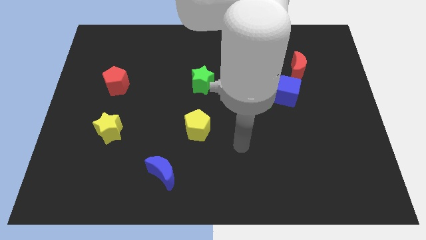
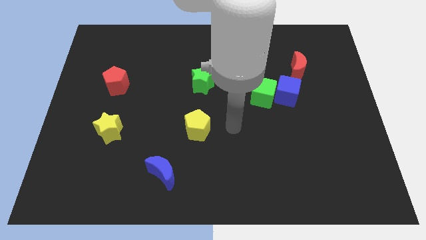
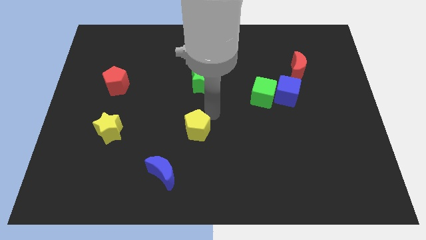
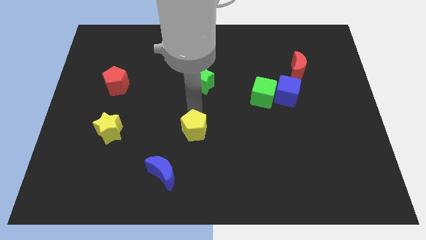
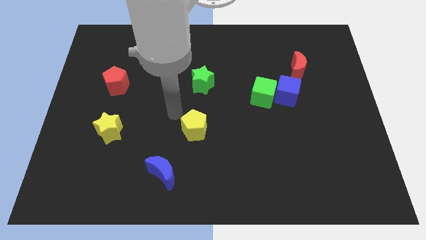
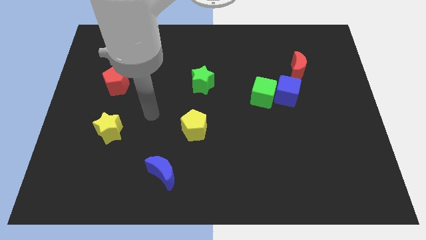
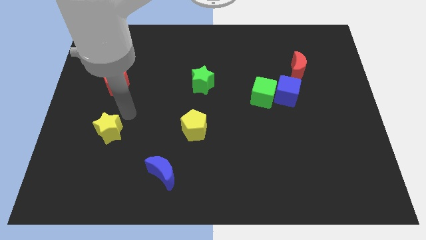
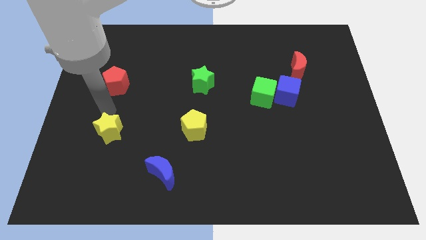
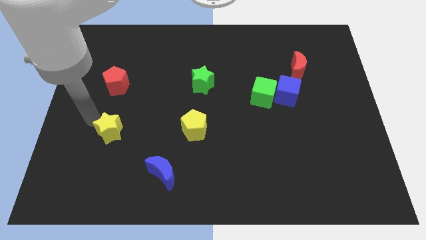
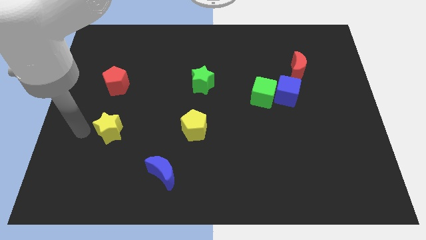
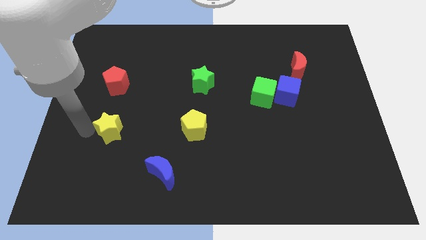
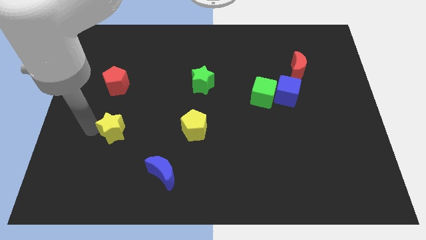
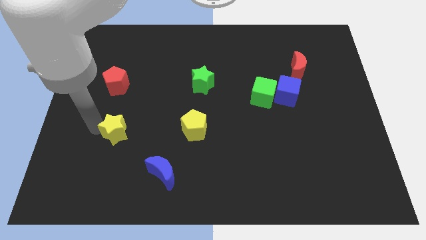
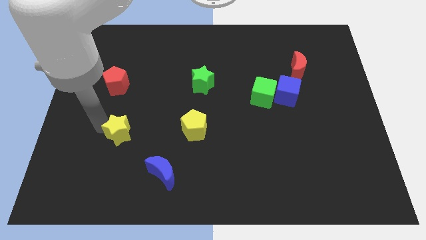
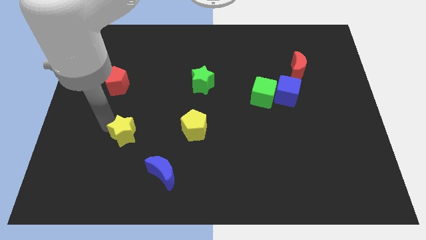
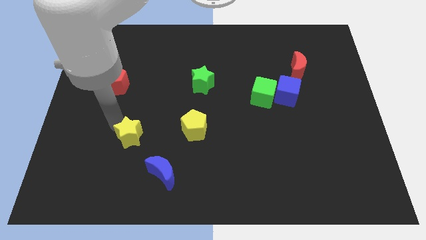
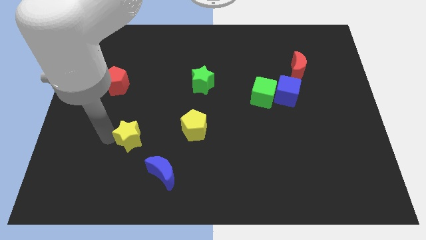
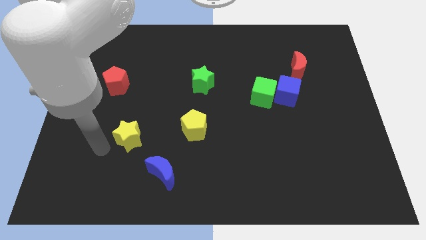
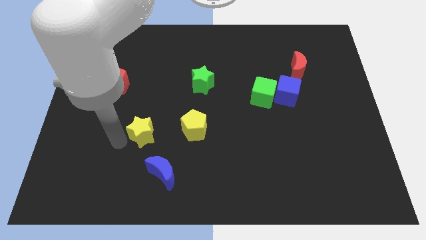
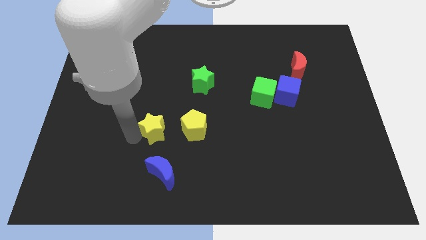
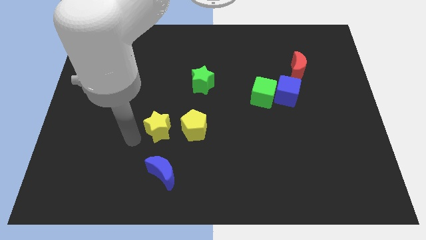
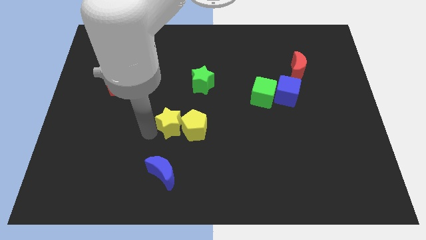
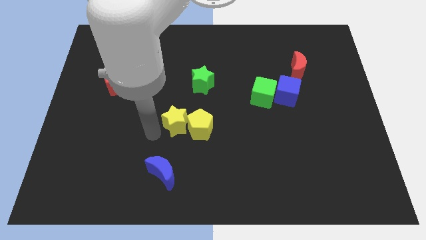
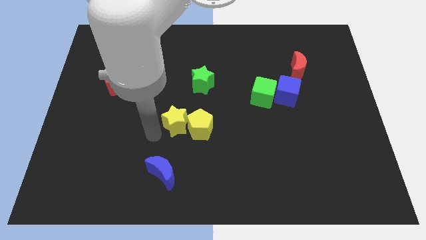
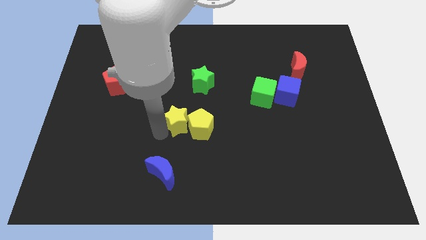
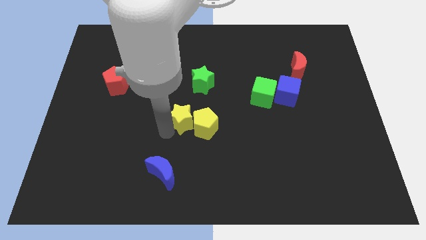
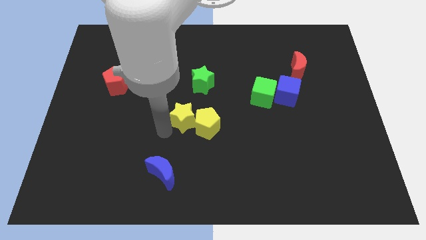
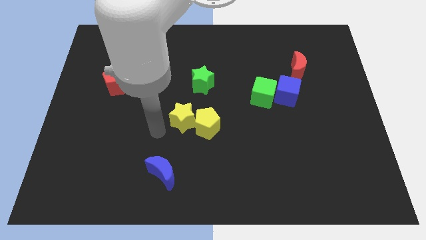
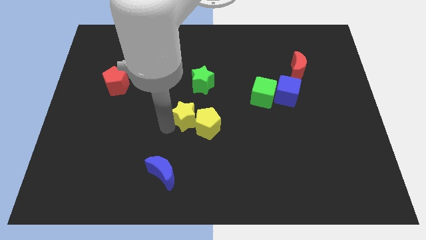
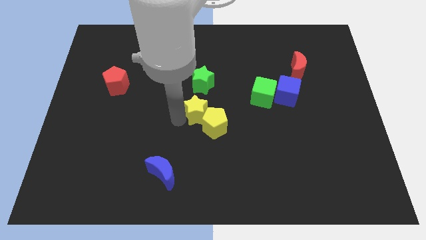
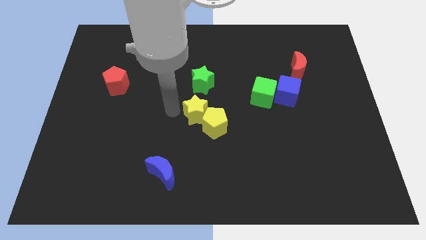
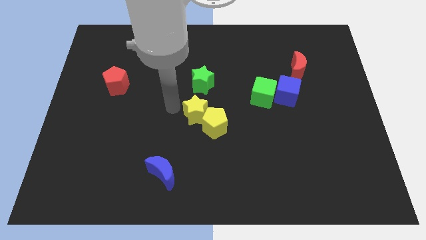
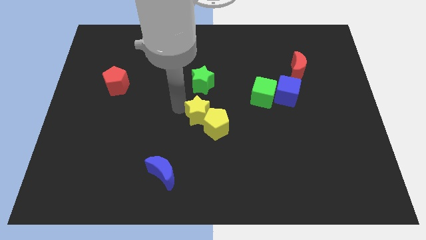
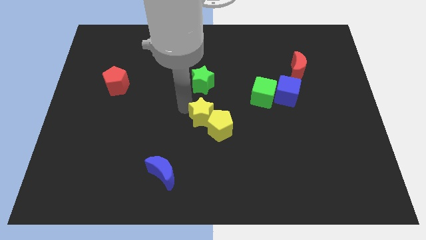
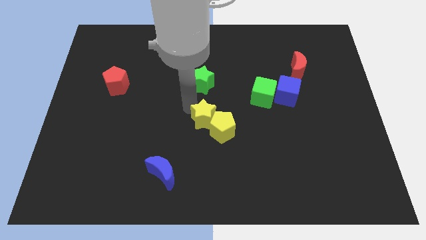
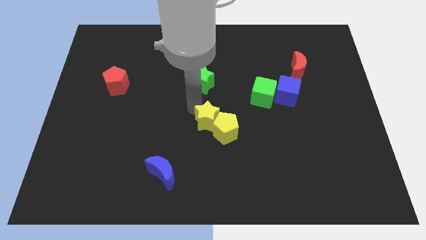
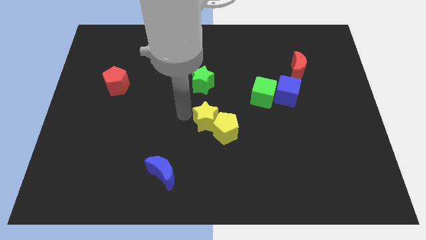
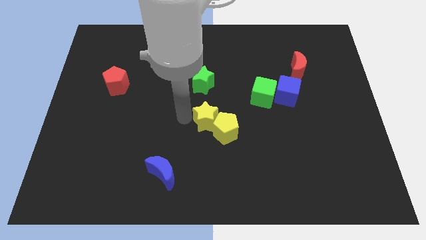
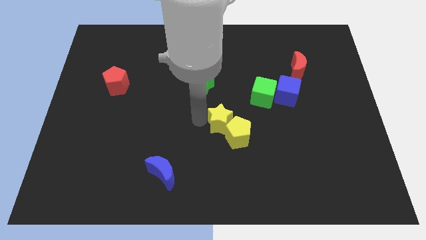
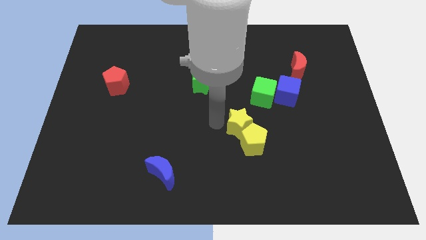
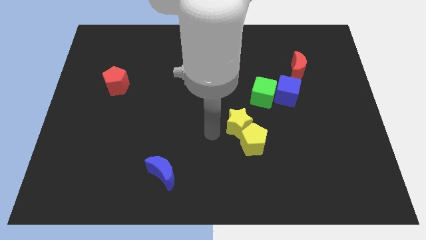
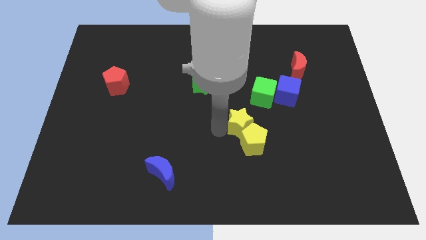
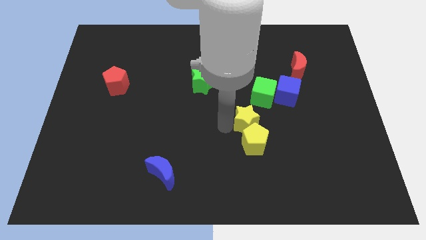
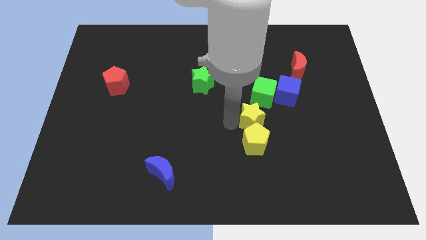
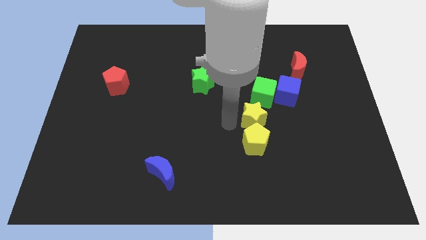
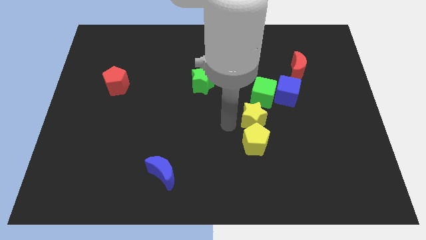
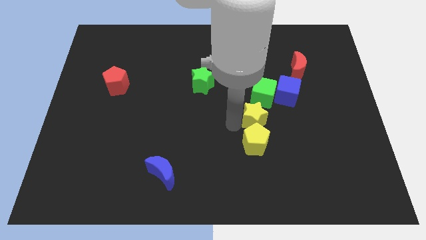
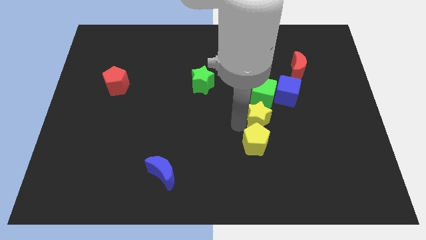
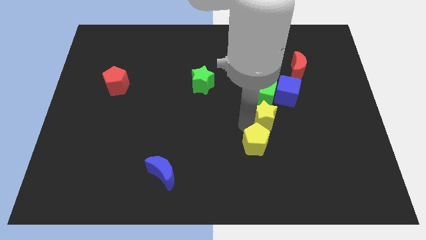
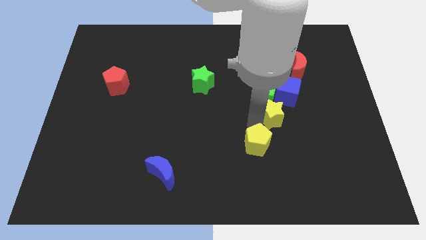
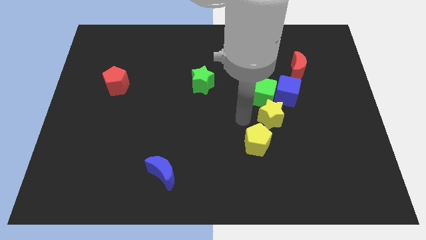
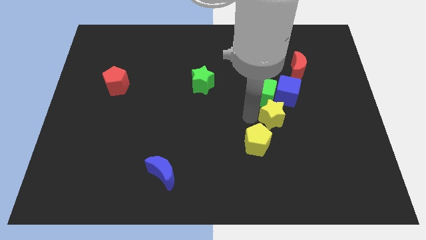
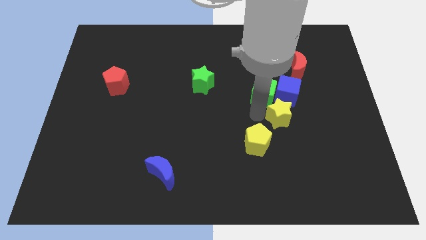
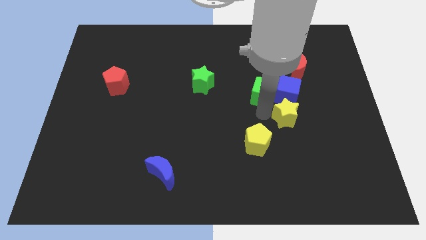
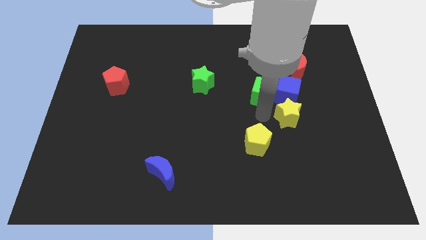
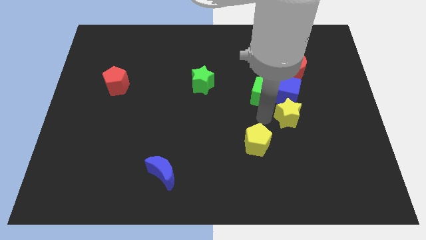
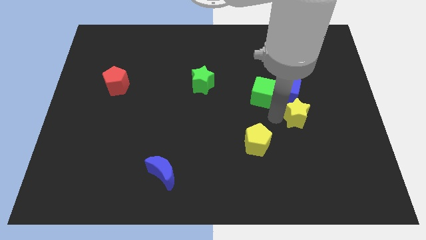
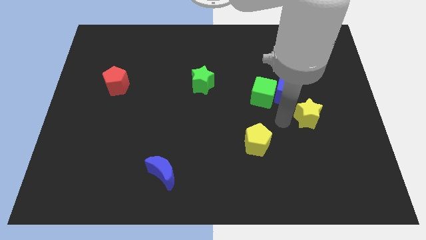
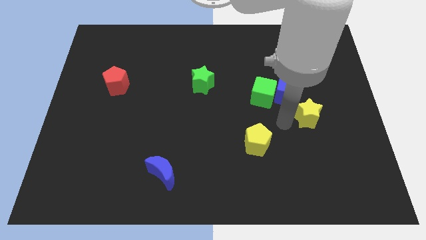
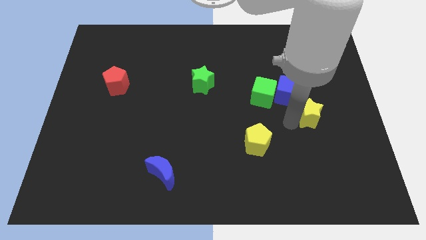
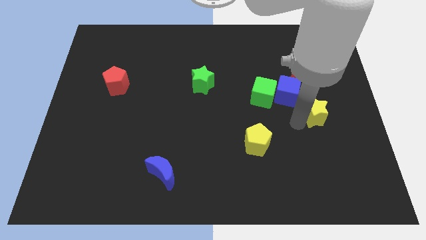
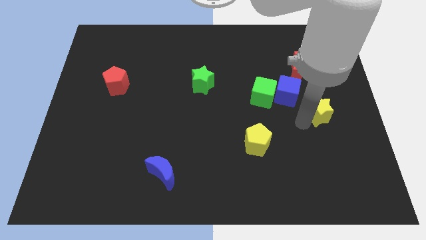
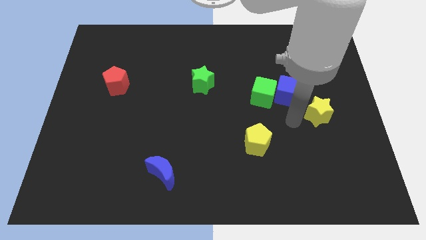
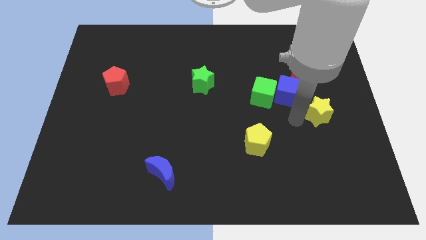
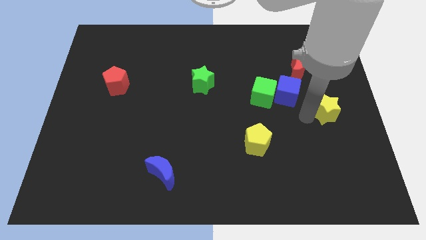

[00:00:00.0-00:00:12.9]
slide the yellow star to the right side of the board

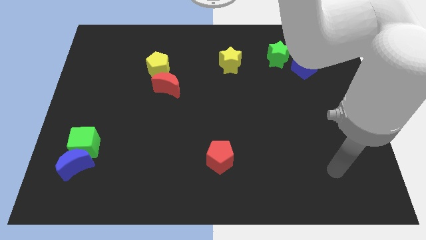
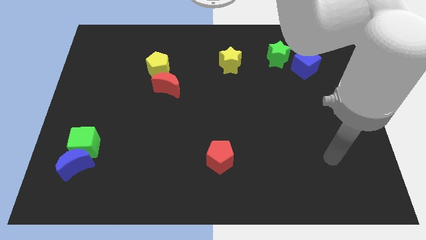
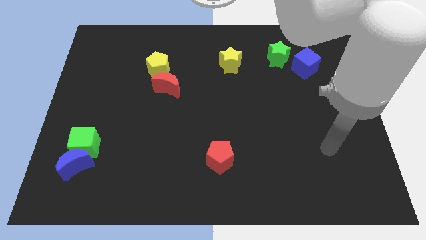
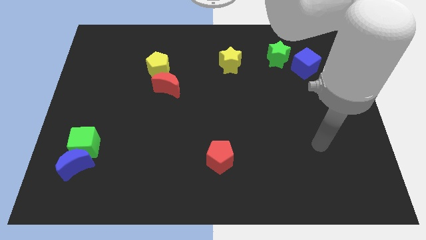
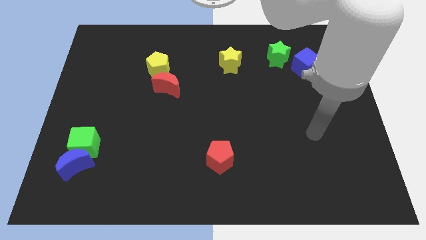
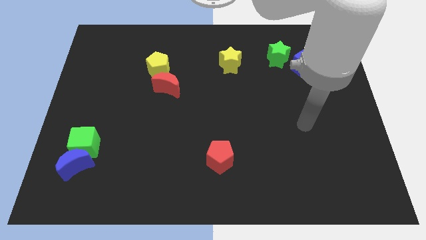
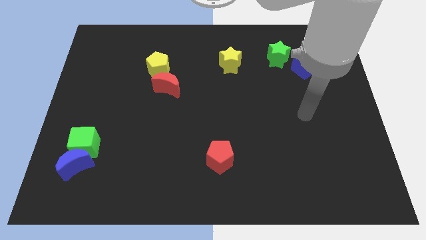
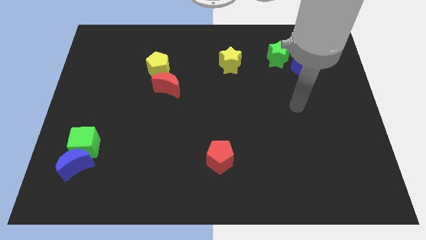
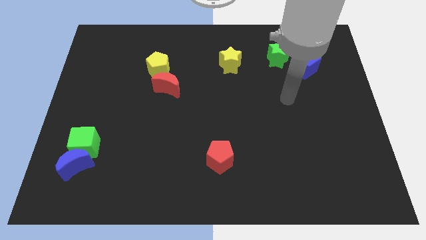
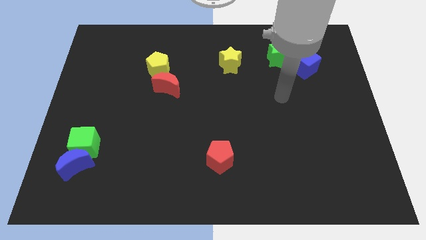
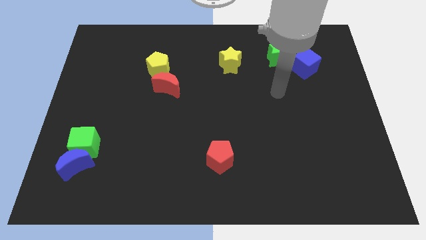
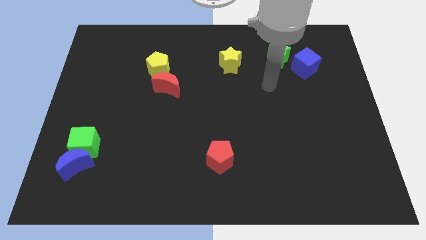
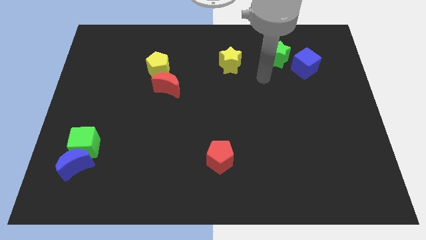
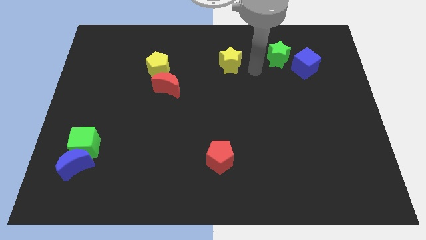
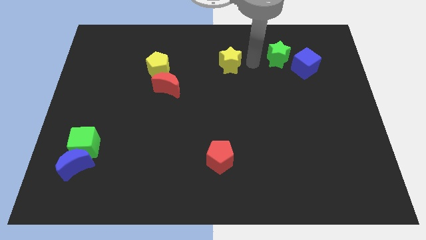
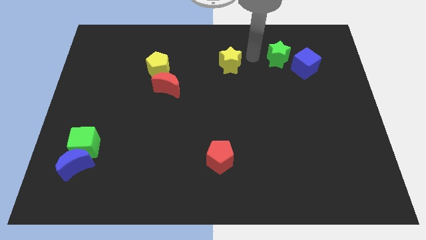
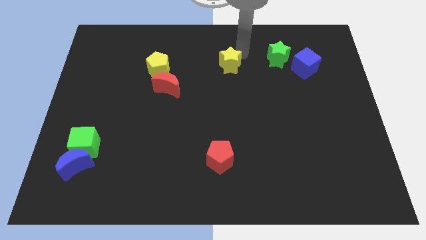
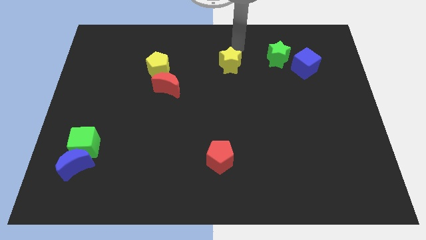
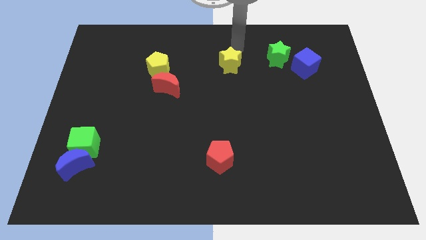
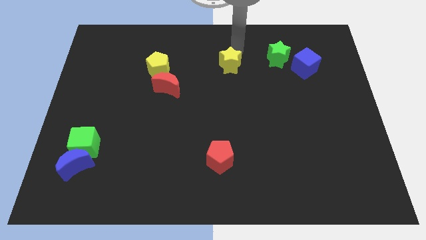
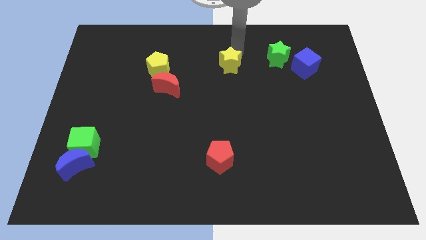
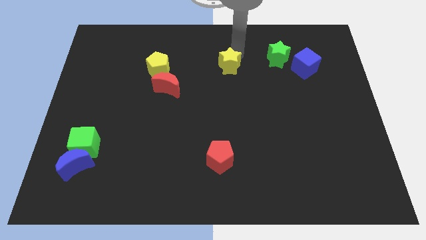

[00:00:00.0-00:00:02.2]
put the yellow star to the middle
